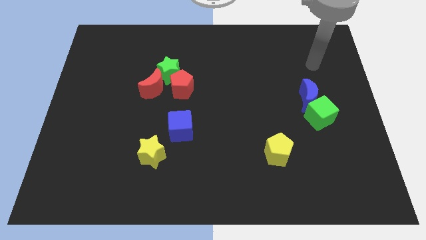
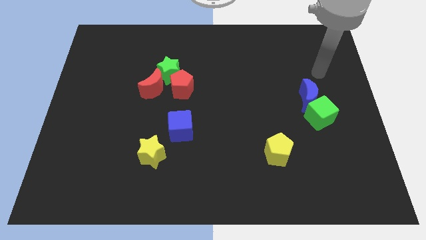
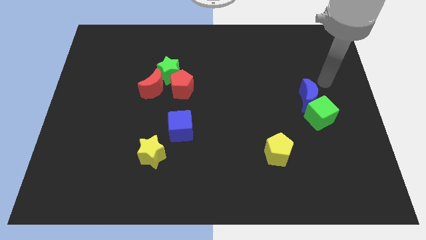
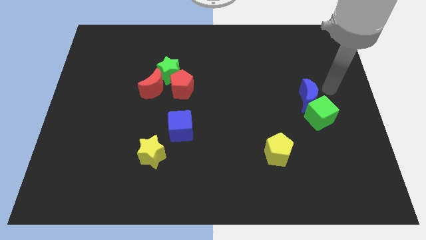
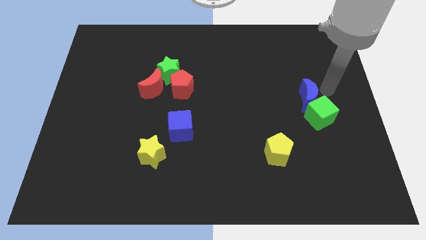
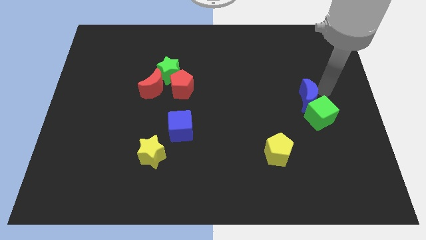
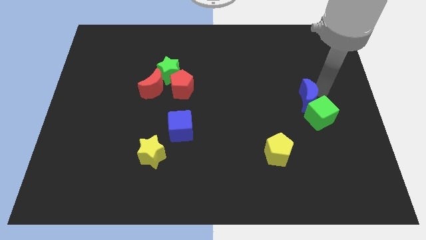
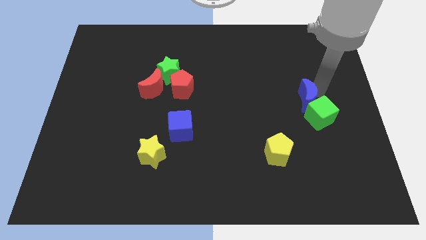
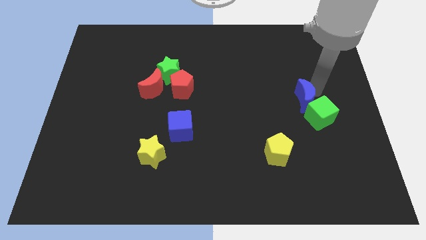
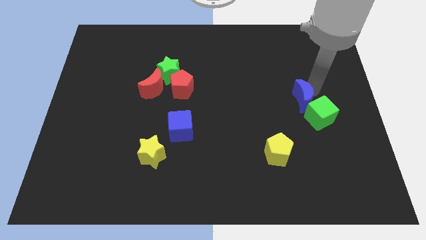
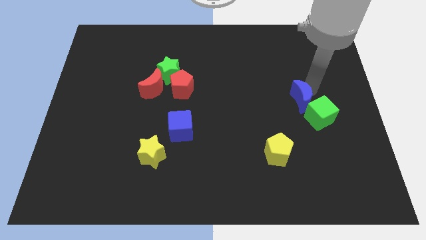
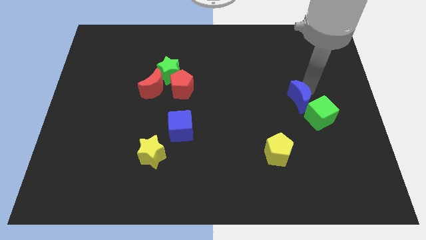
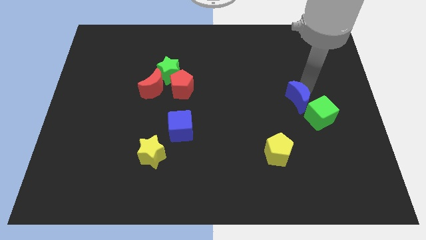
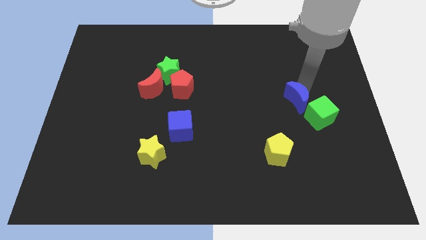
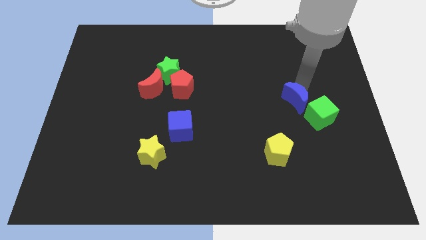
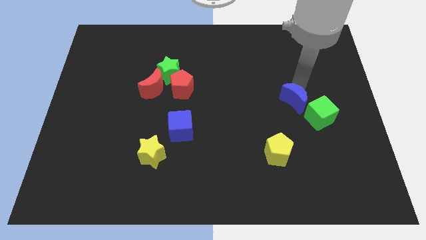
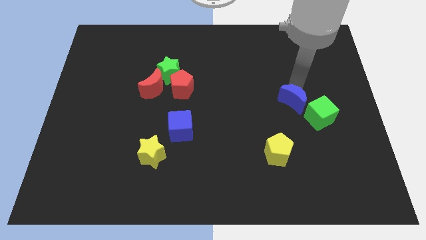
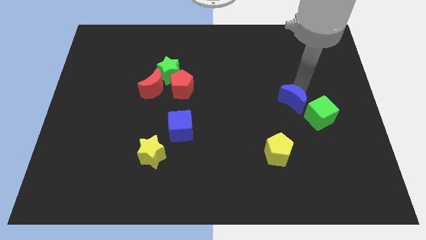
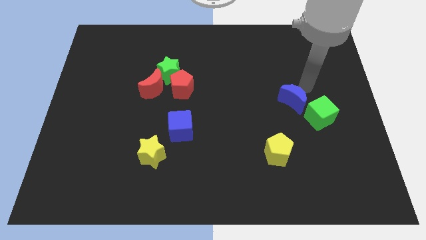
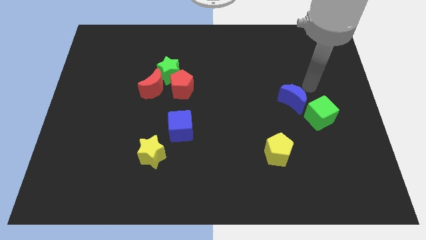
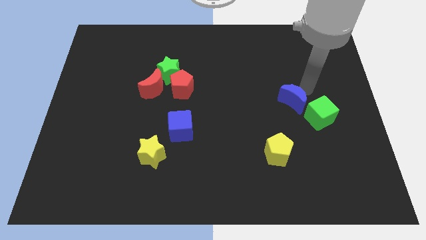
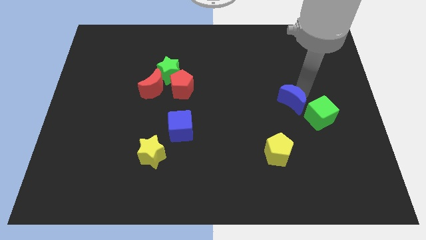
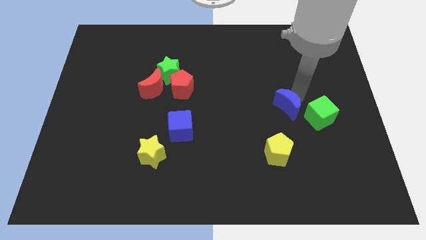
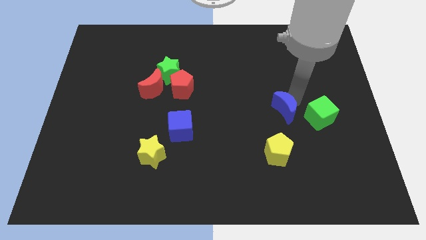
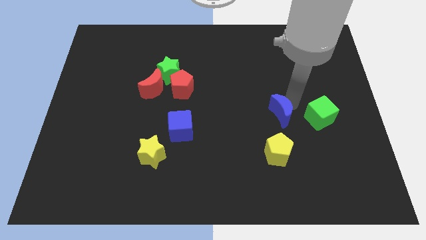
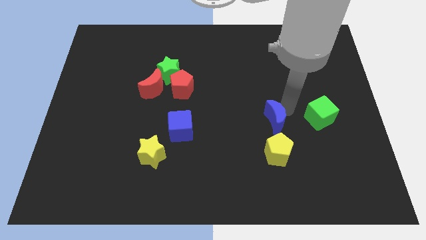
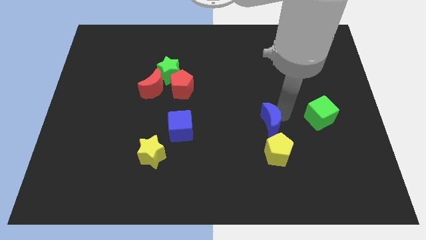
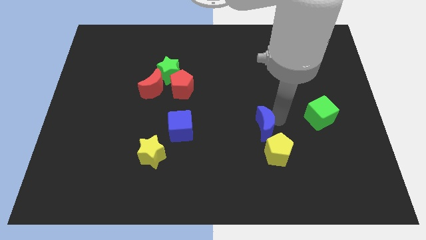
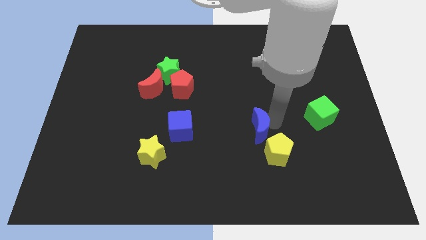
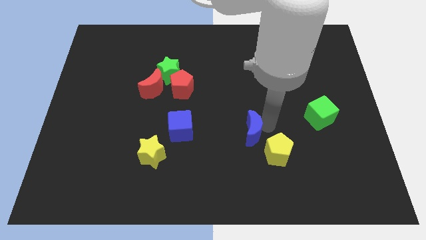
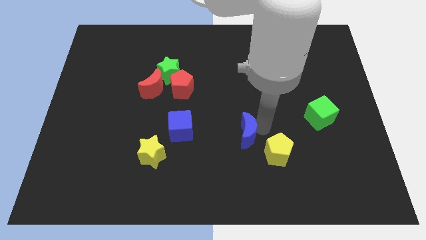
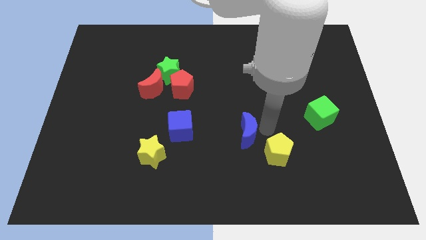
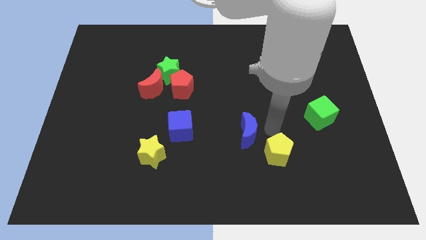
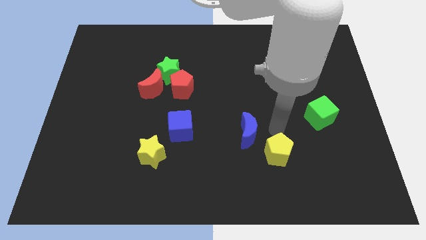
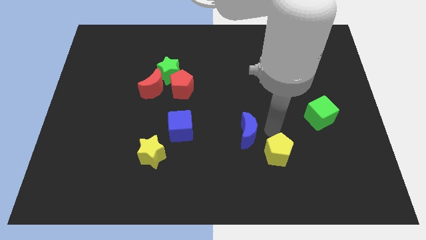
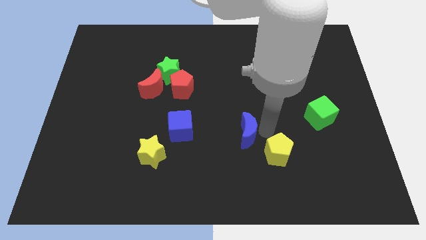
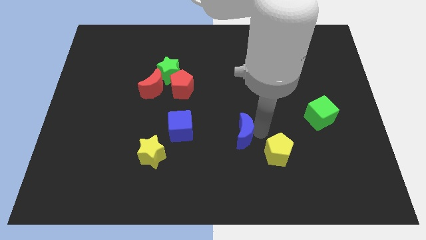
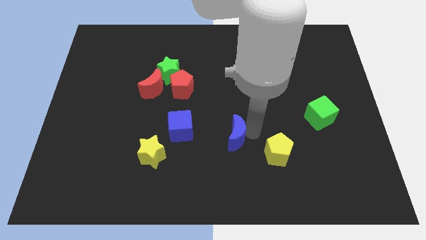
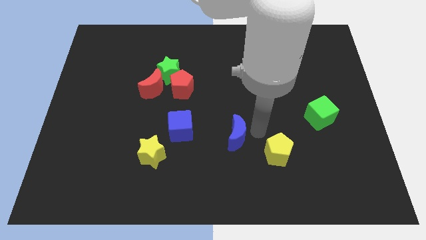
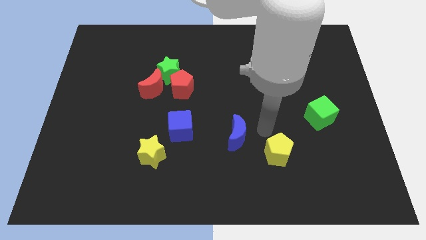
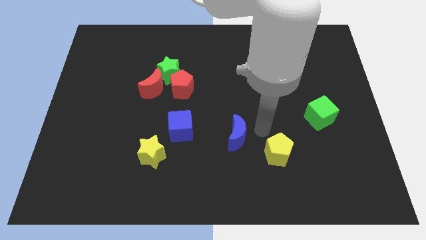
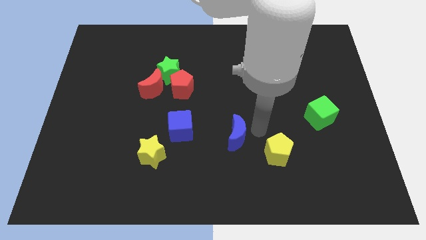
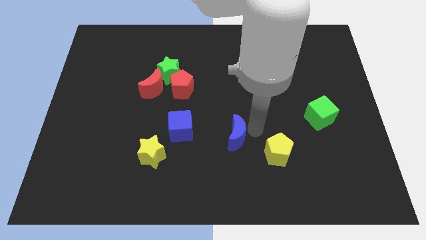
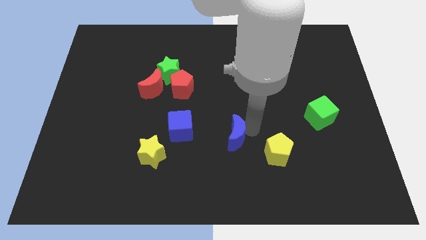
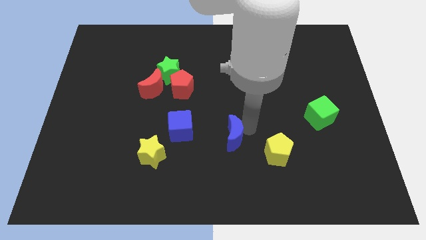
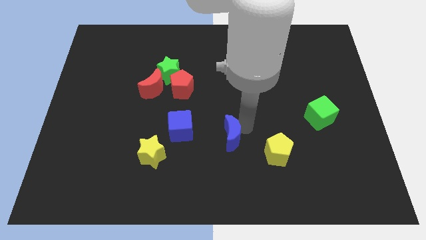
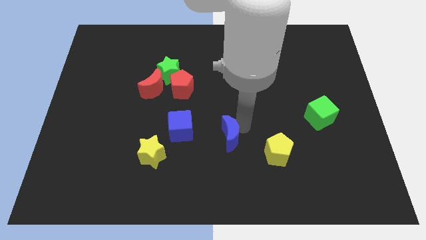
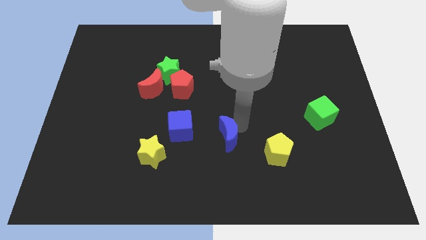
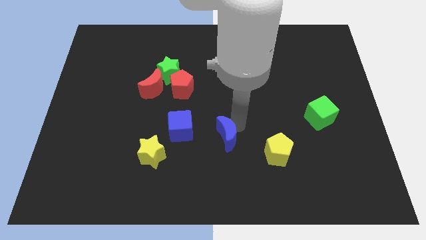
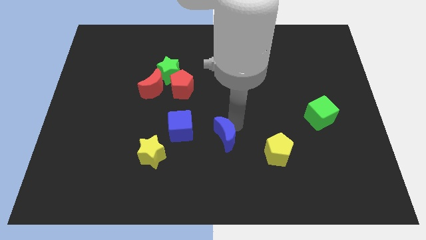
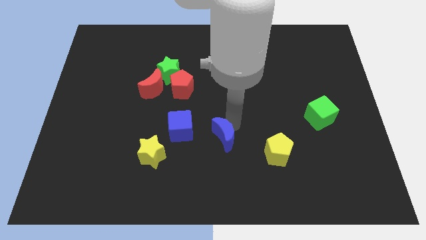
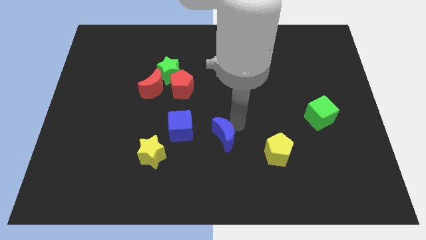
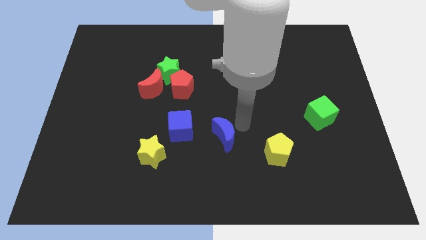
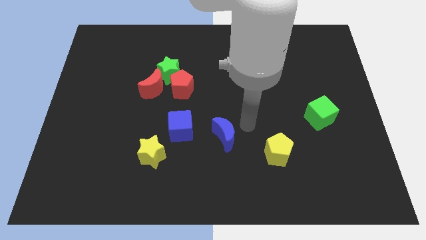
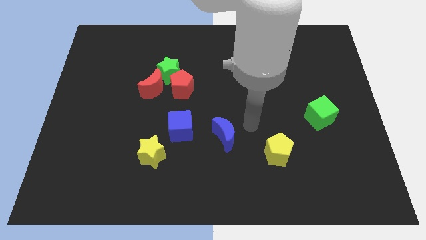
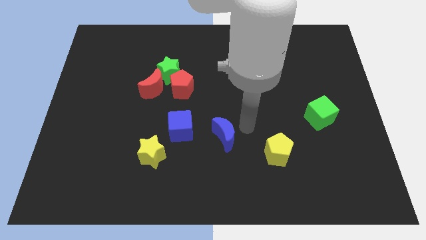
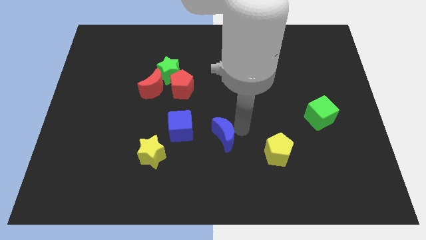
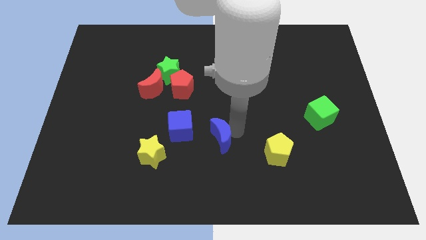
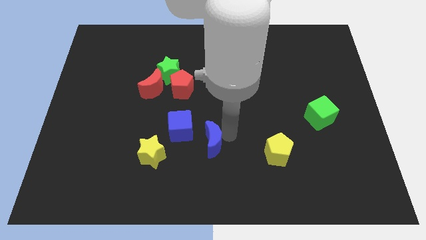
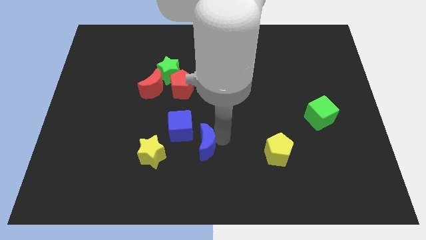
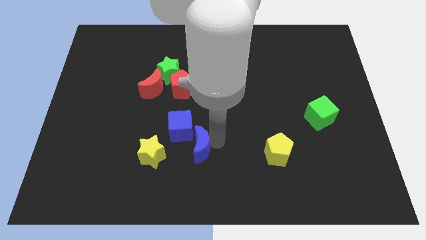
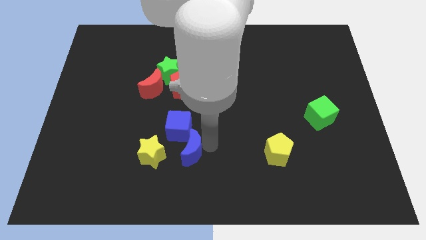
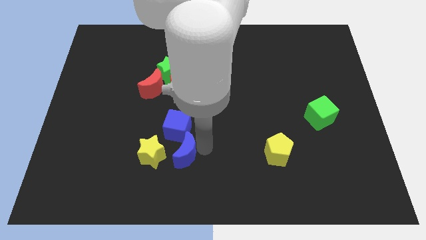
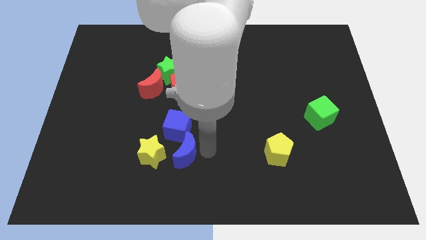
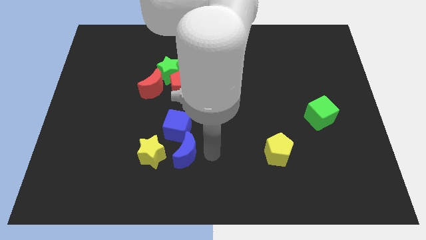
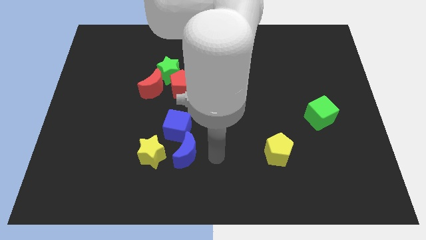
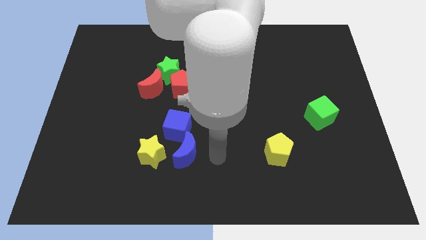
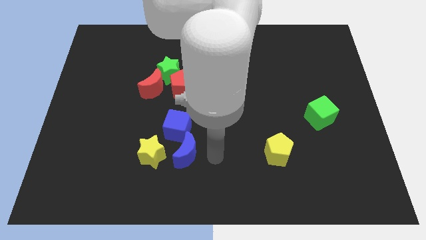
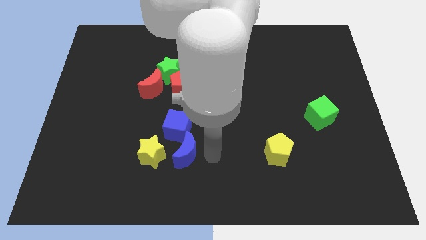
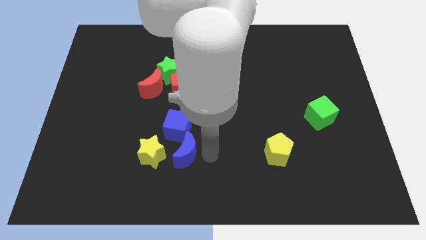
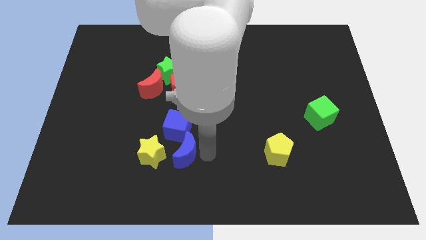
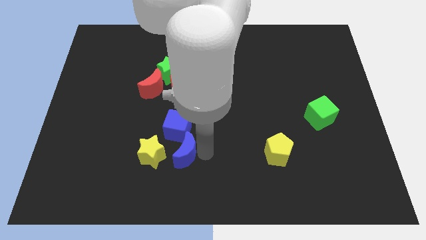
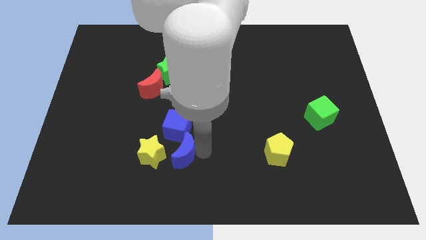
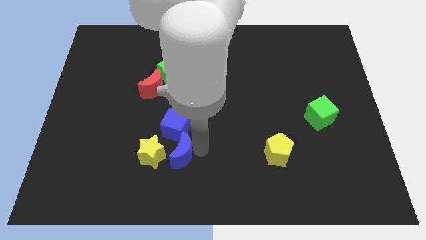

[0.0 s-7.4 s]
slide the blue moon to the yellow star
